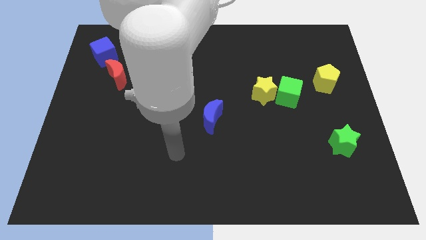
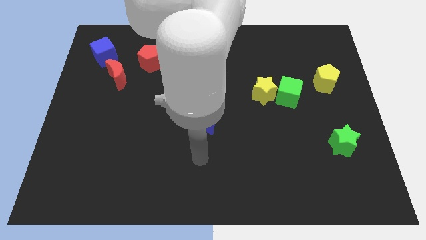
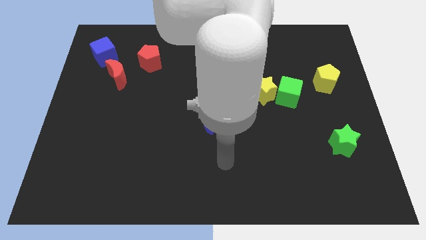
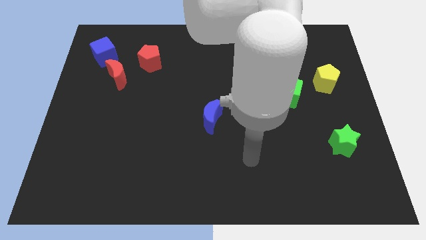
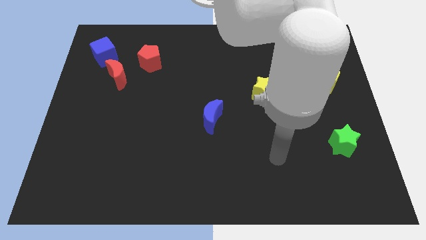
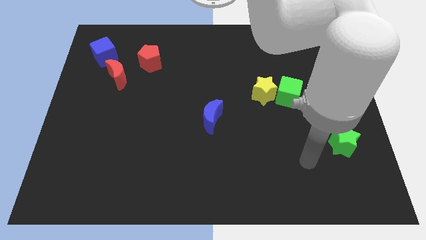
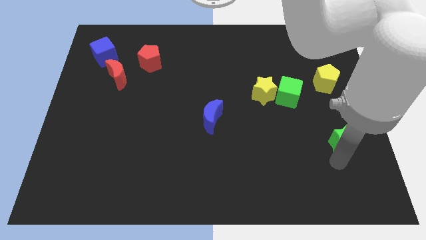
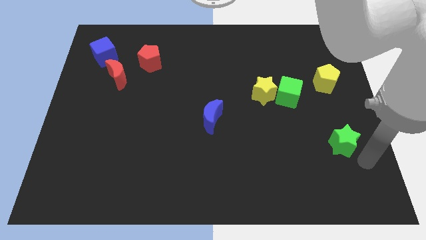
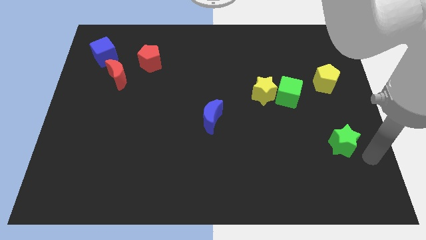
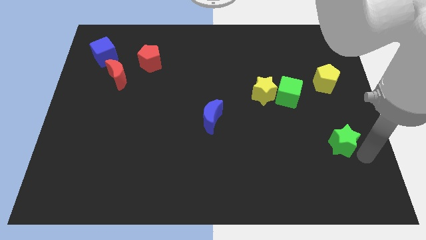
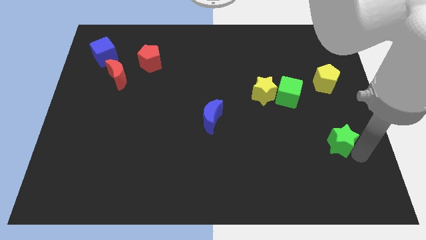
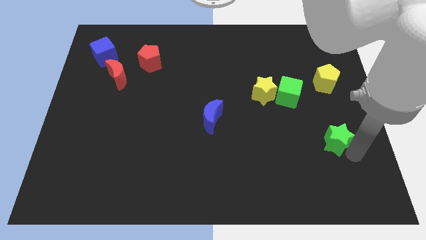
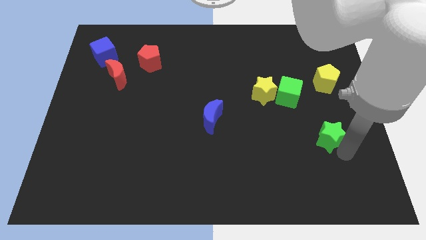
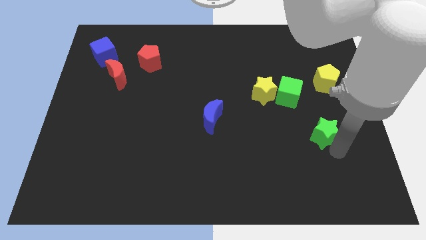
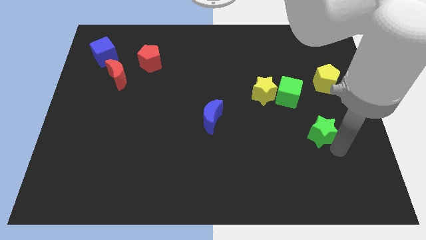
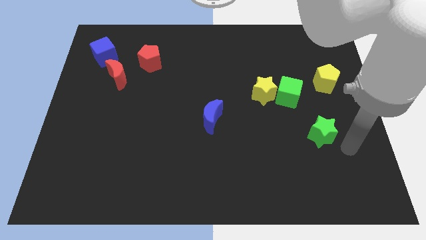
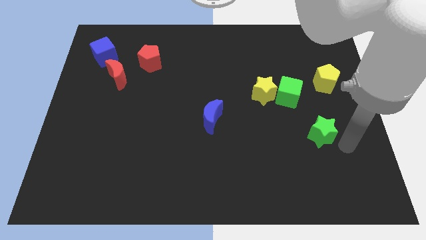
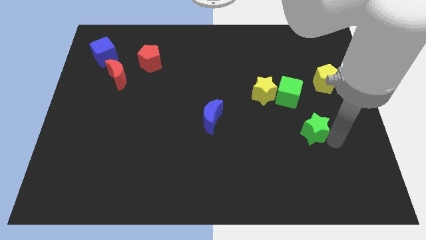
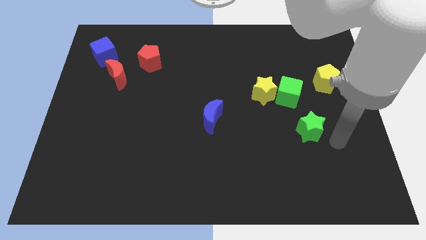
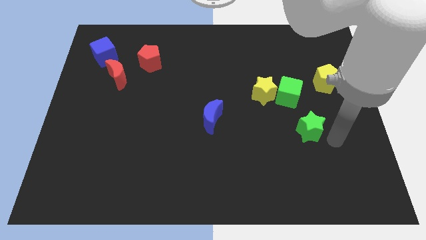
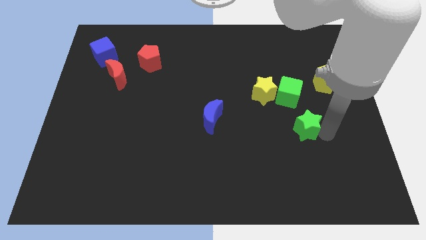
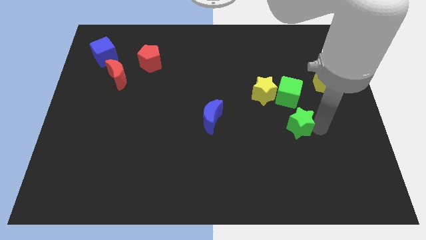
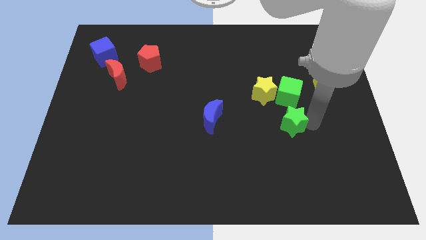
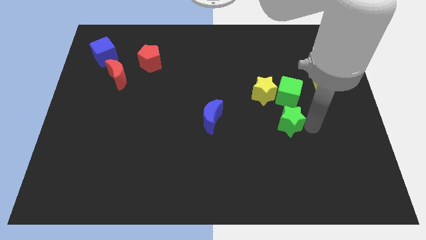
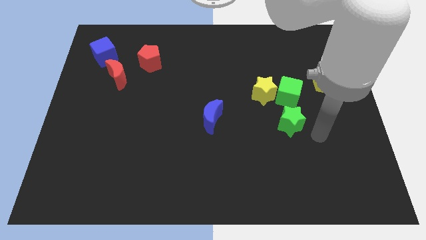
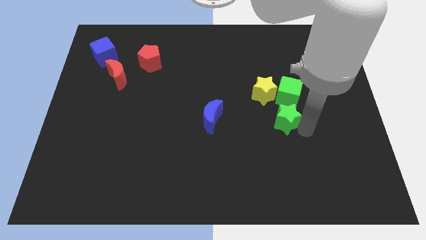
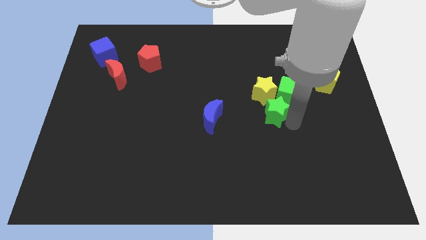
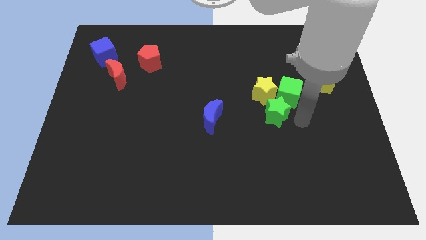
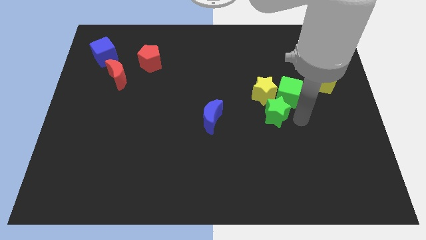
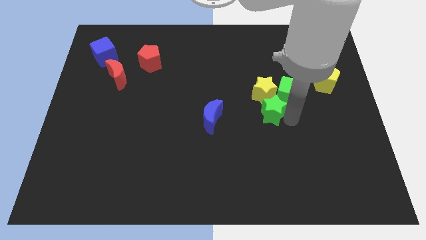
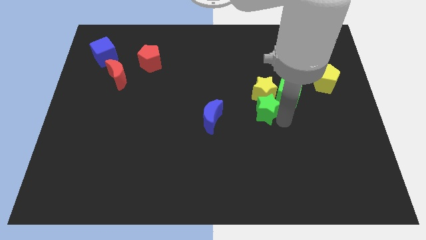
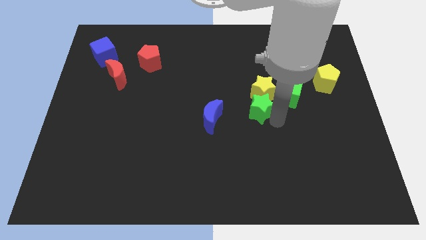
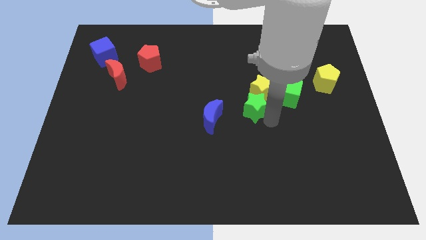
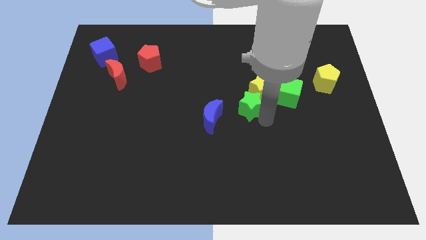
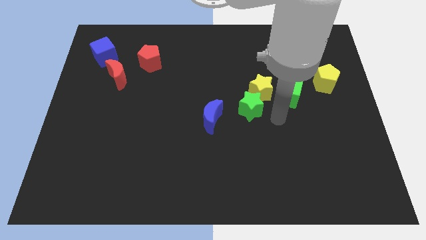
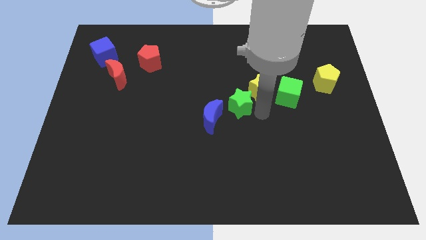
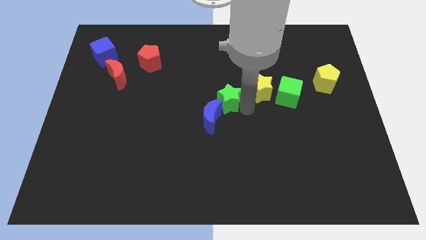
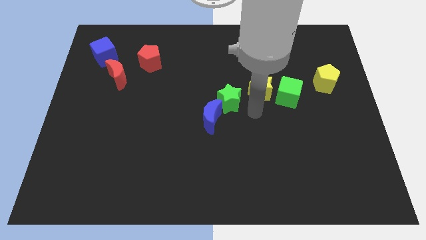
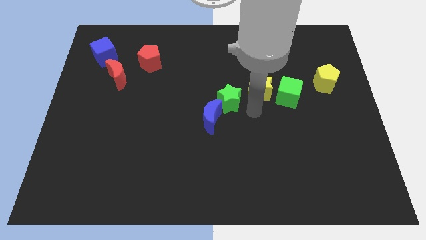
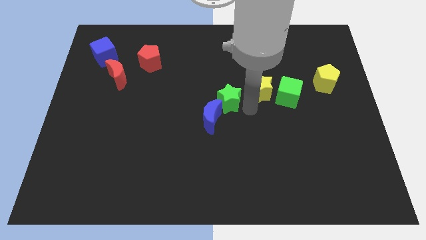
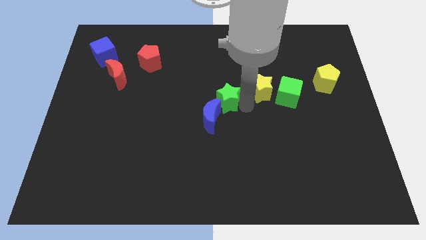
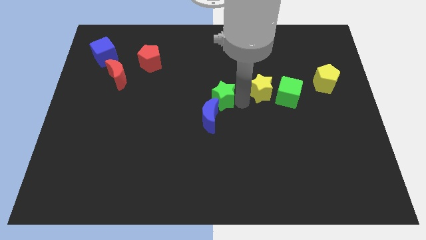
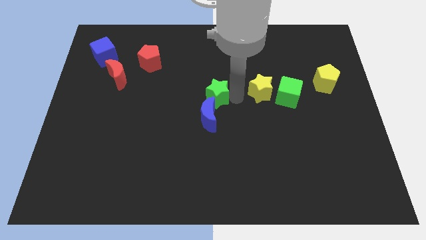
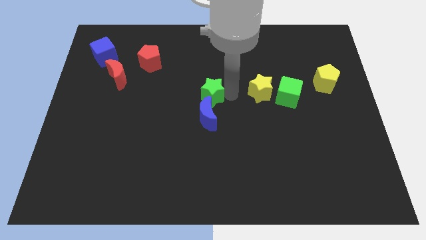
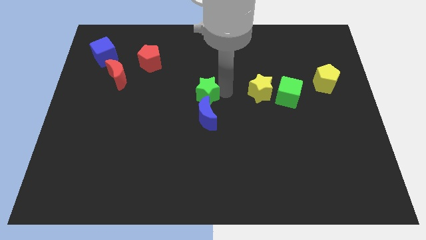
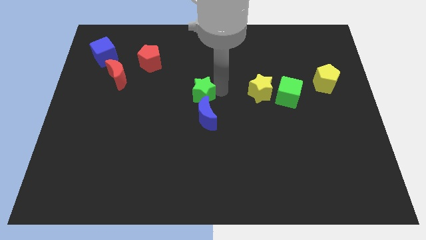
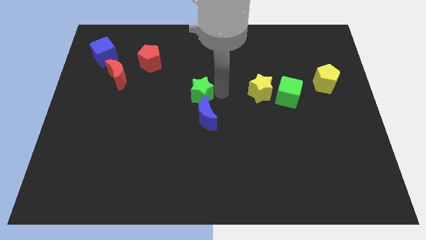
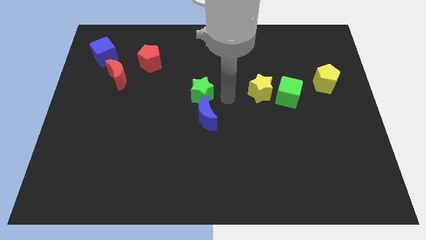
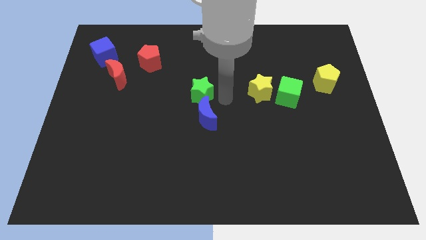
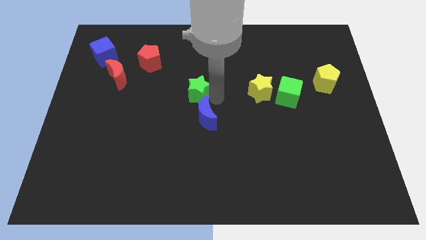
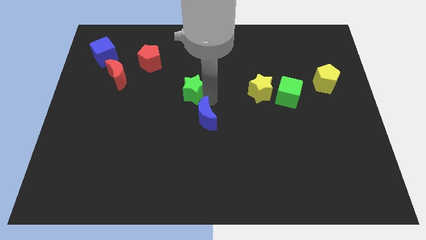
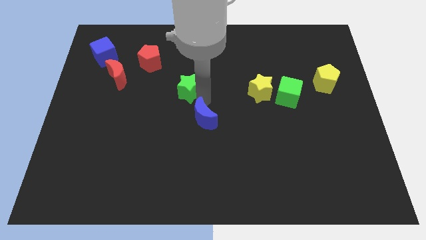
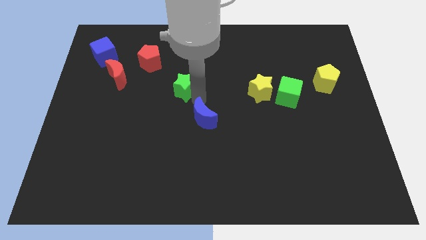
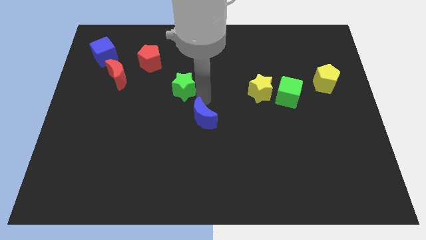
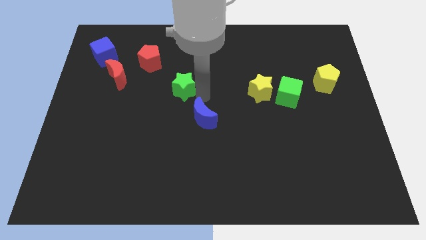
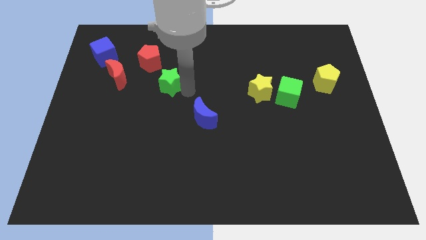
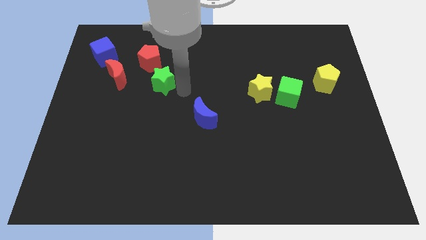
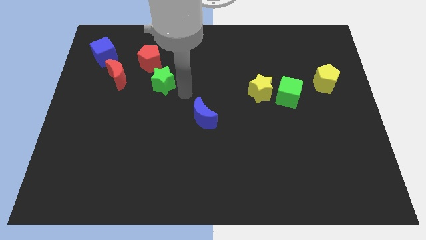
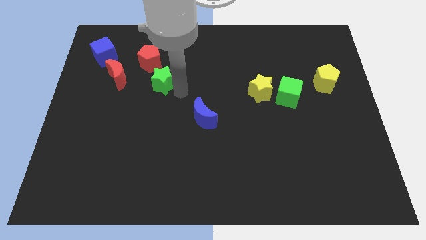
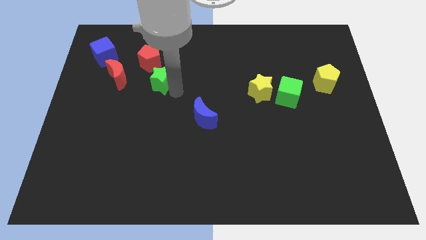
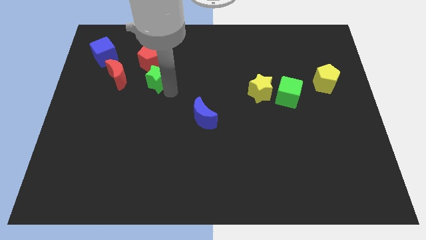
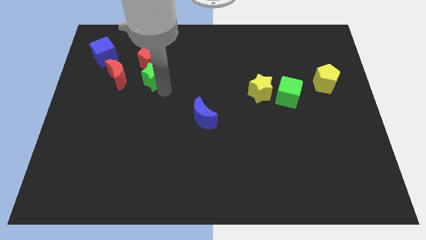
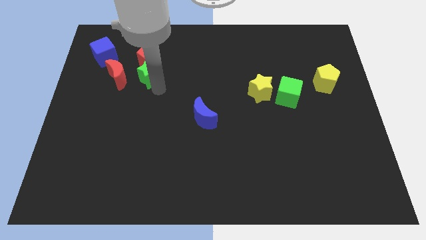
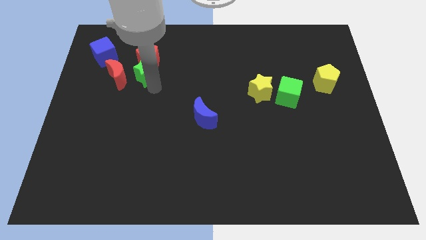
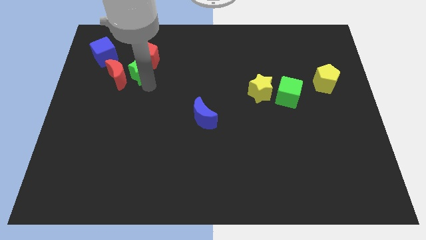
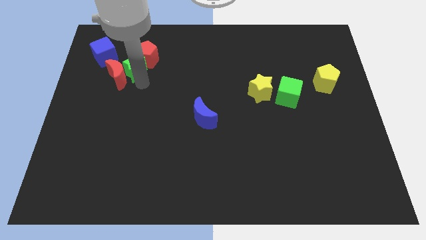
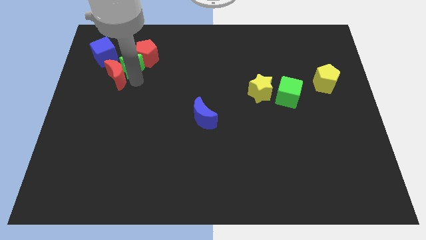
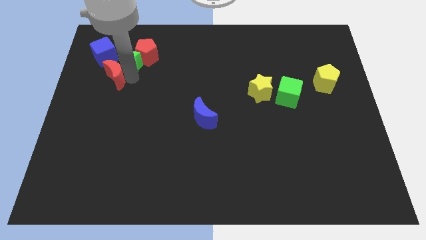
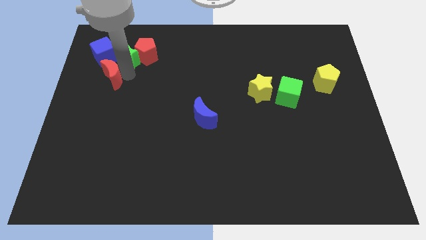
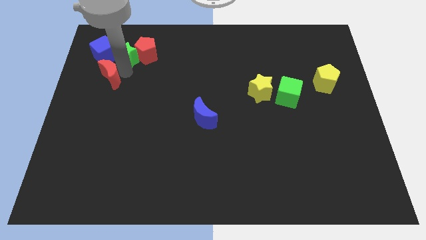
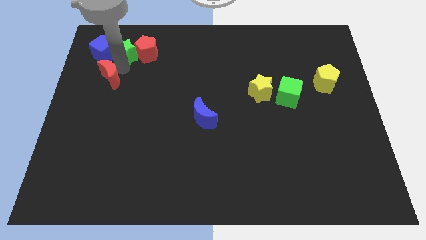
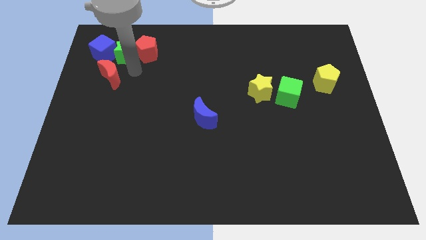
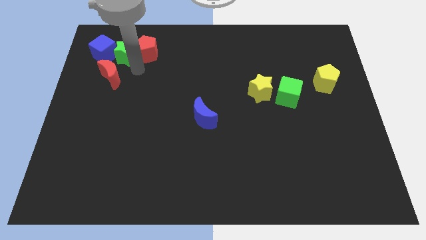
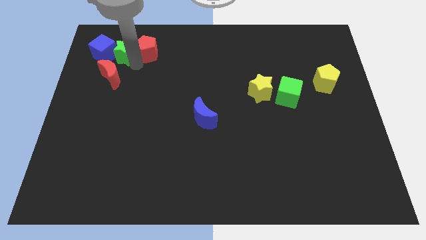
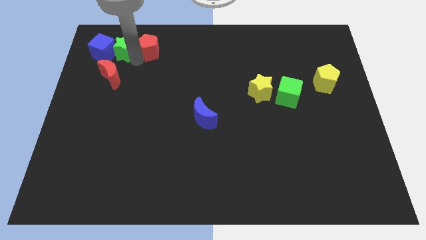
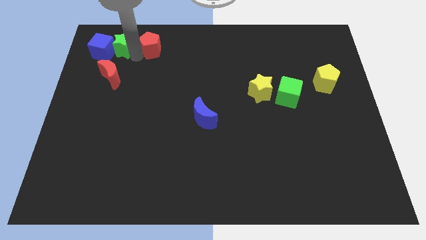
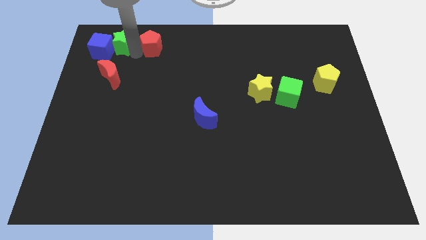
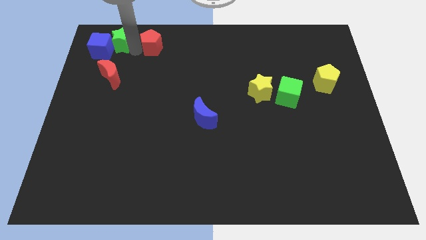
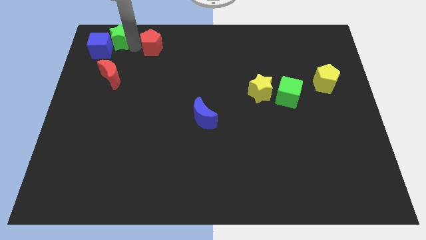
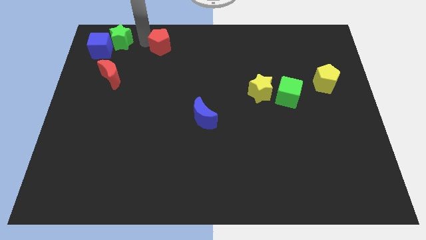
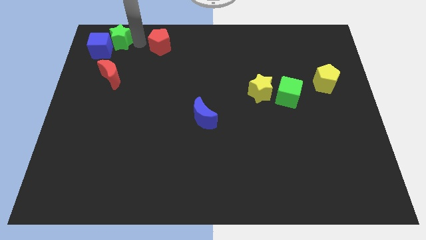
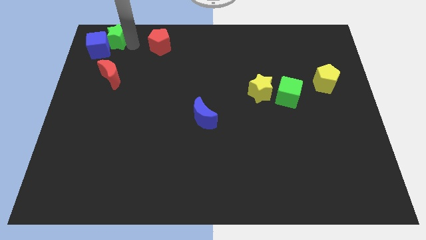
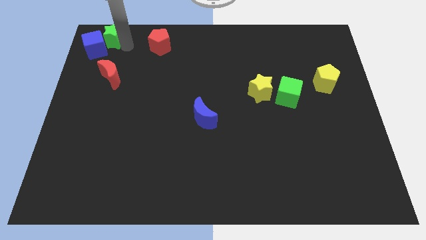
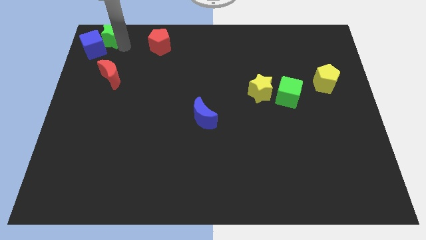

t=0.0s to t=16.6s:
slide the green star to the upper left corner
